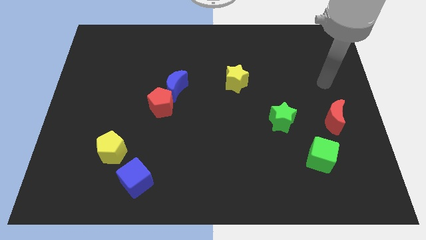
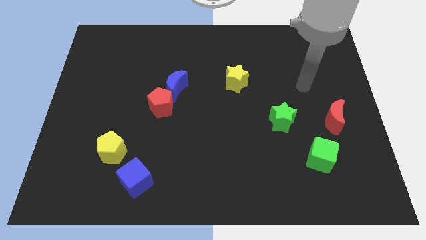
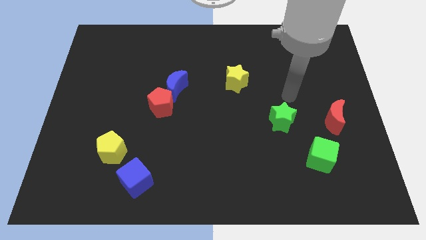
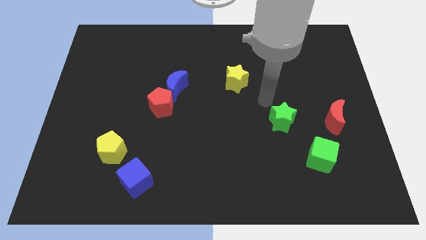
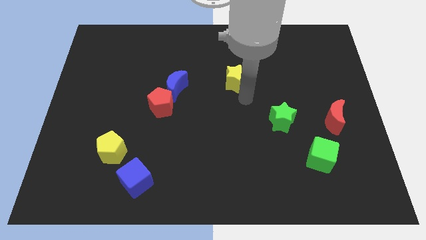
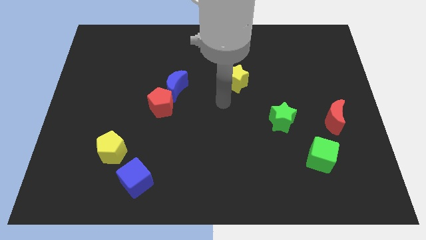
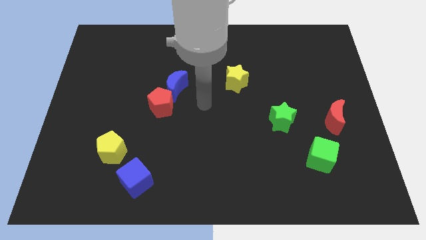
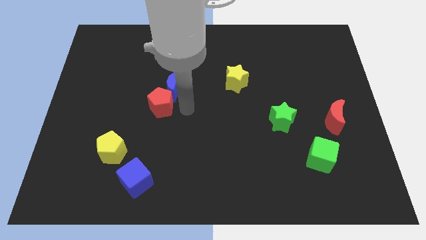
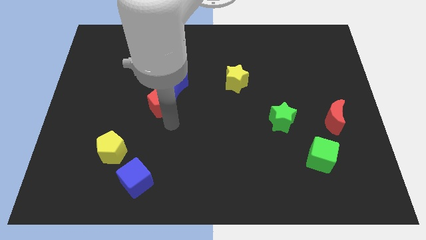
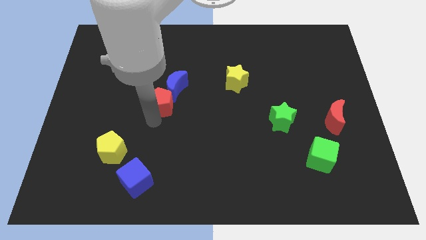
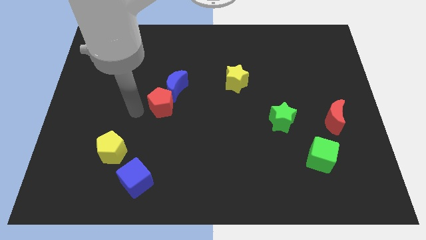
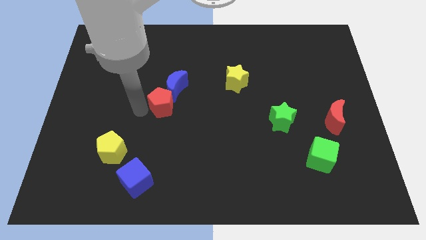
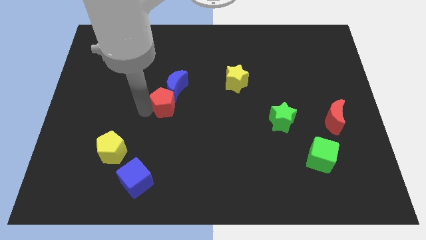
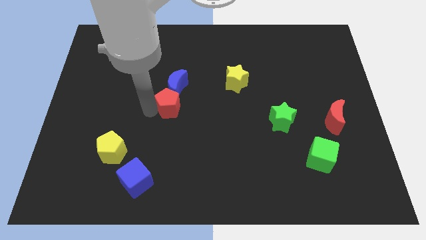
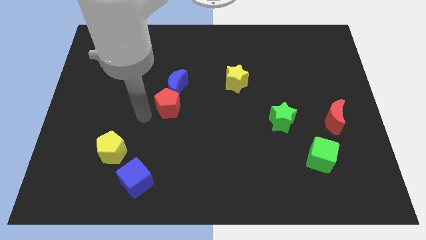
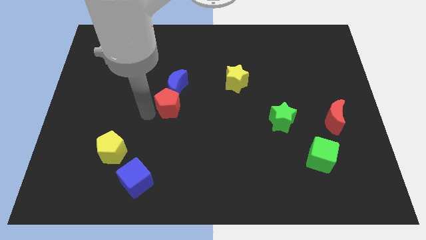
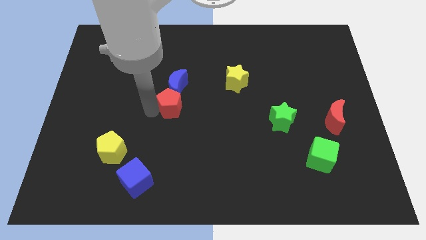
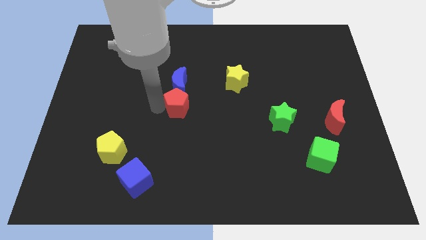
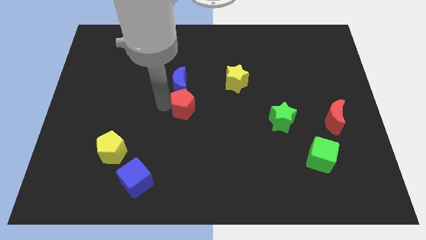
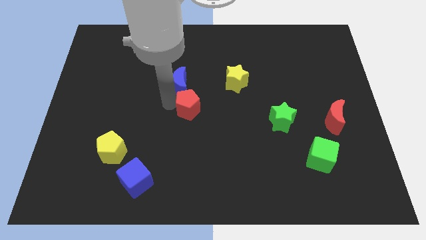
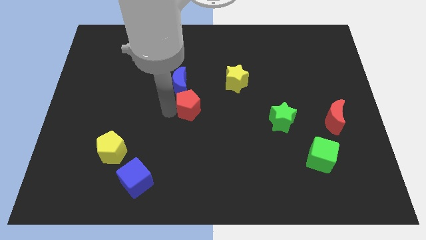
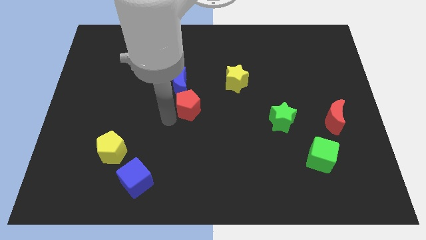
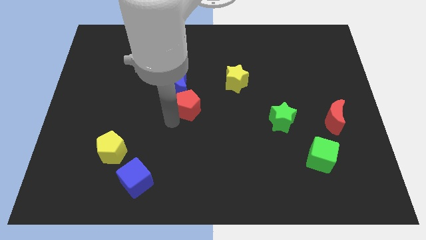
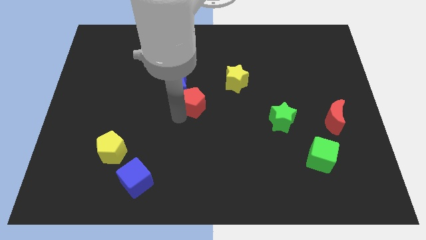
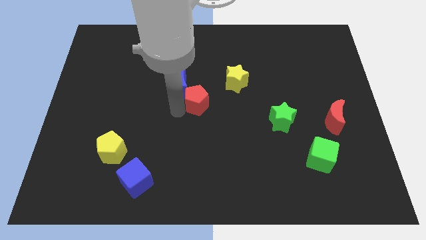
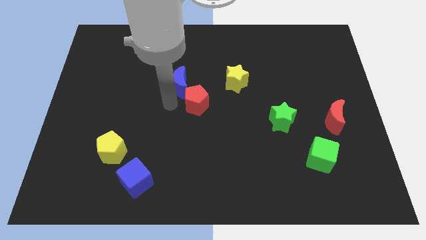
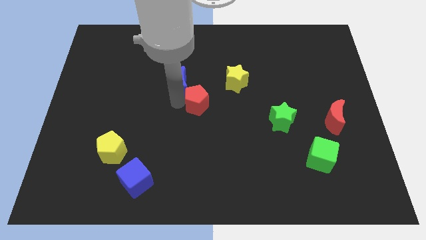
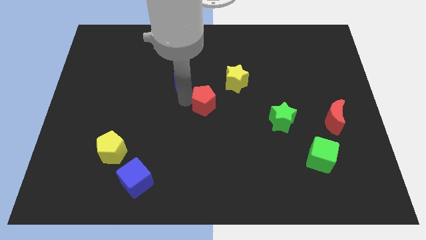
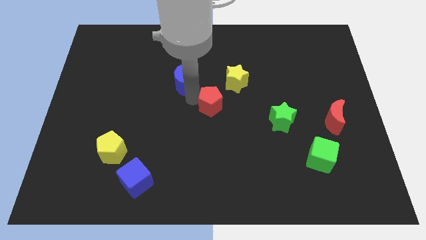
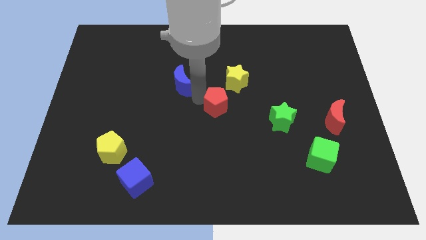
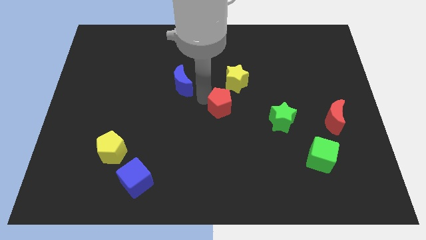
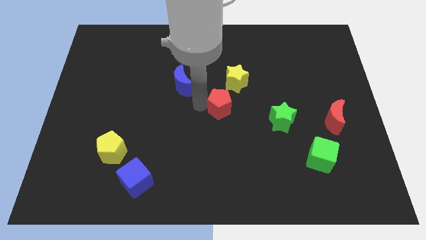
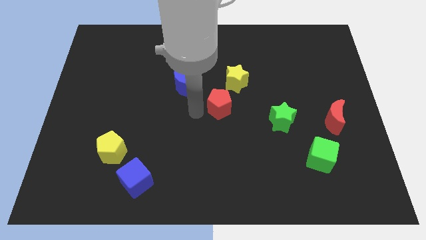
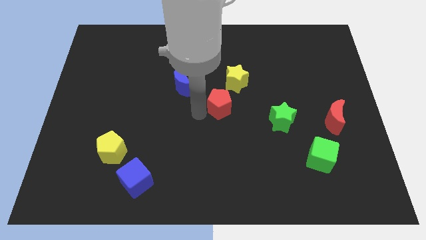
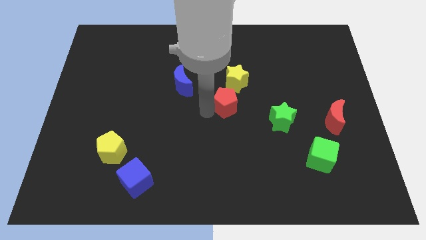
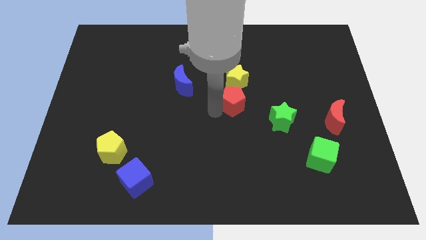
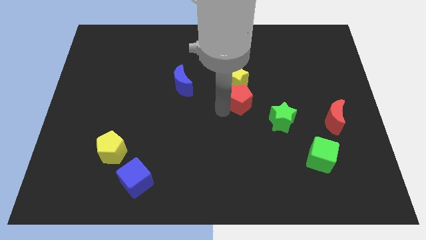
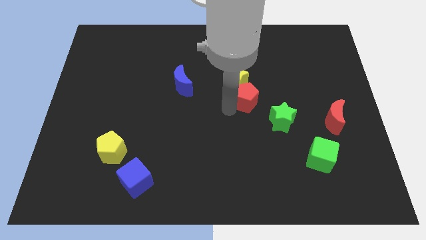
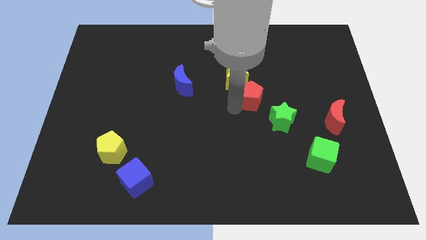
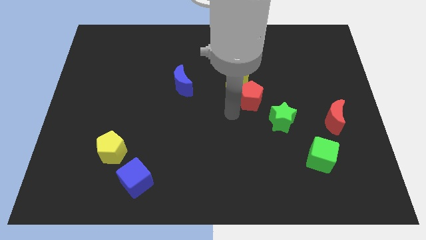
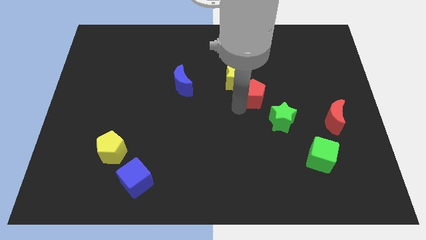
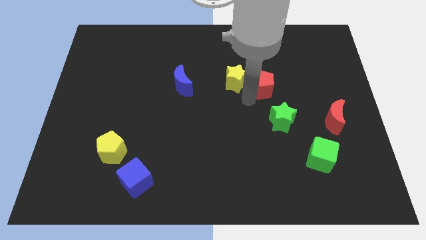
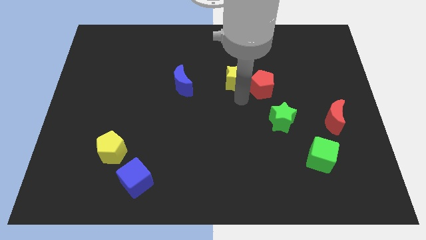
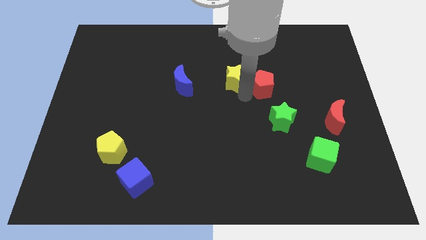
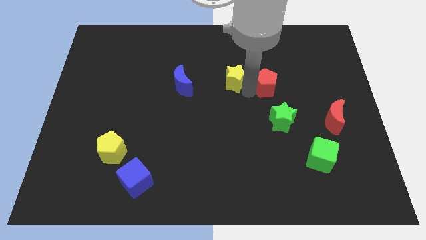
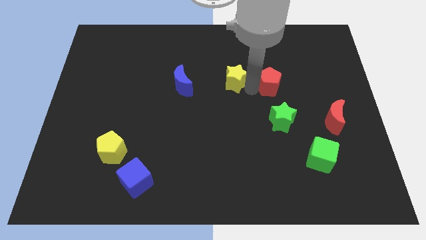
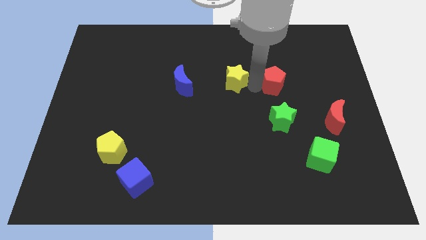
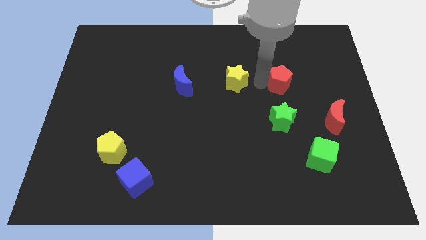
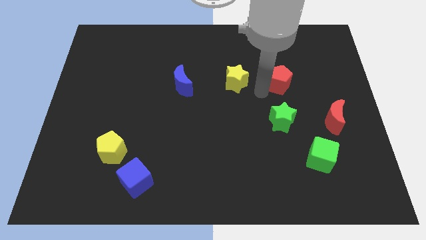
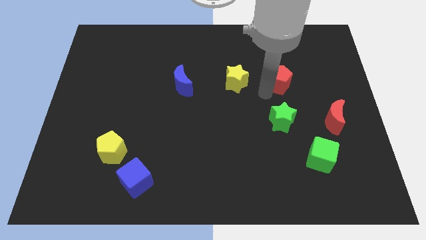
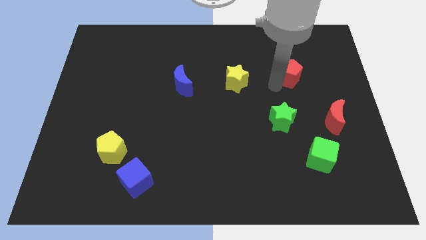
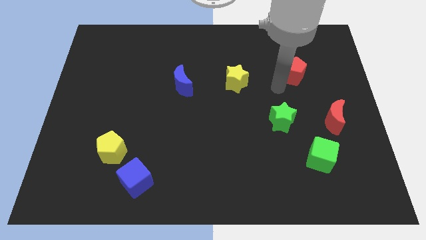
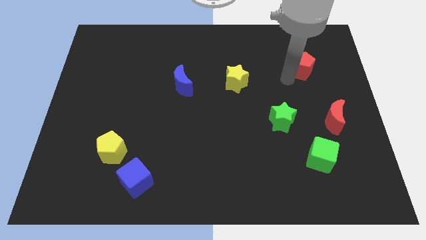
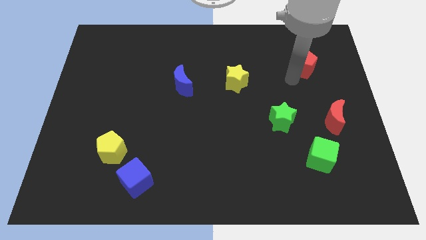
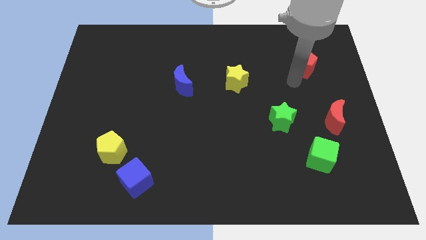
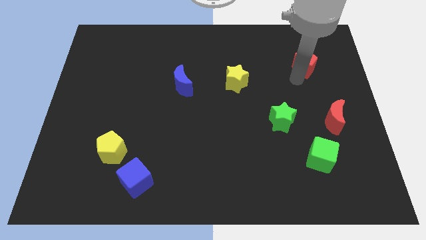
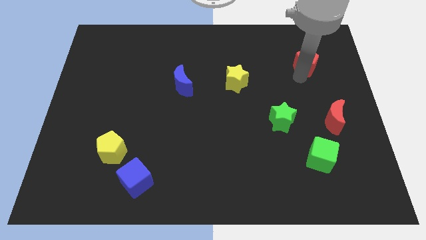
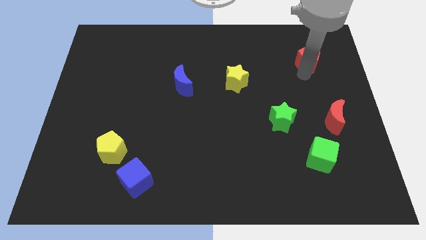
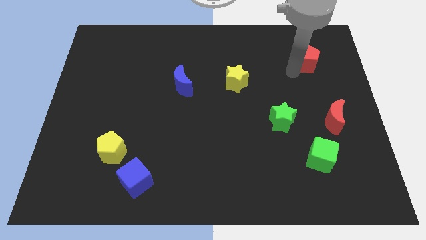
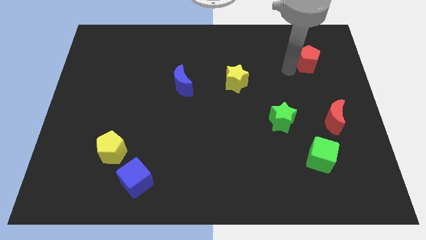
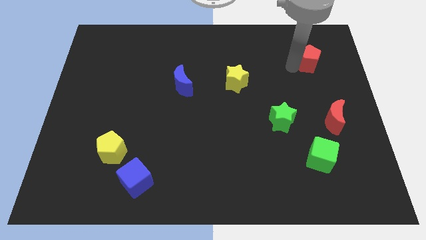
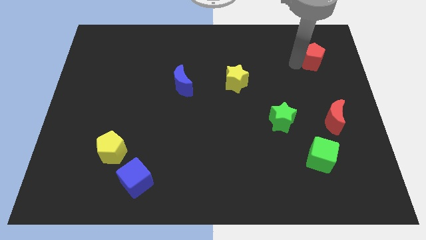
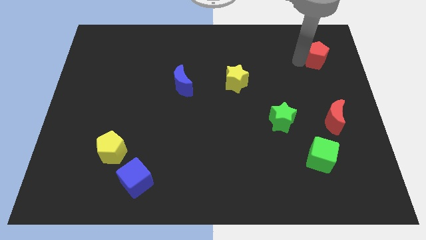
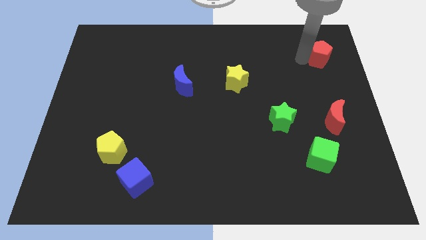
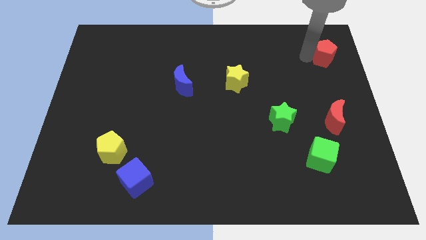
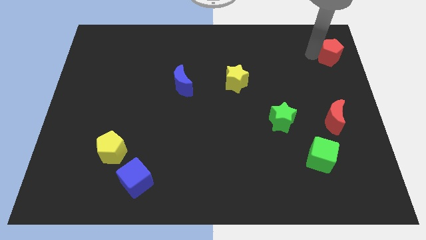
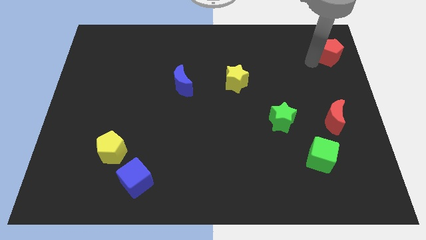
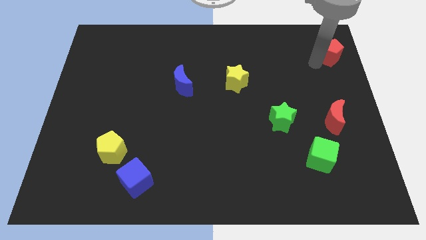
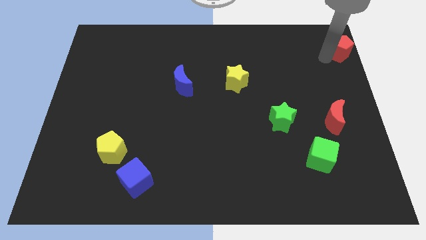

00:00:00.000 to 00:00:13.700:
put the red pentagon to the top right of the board

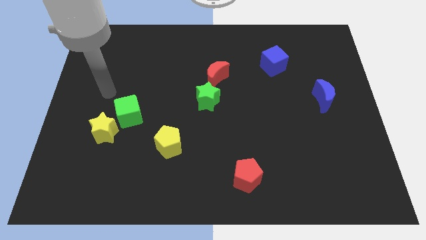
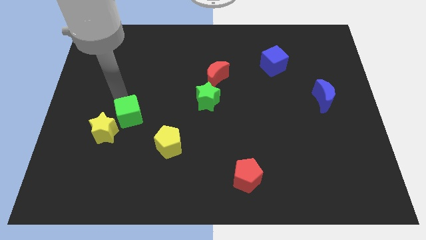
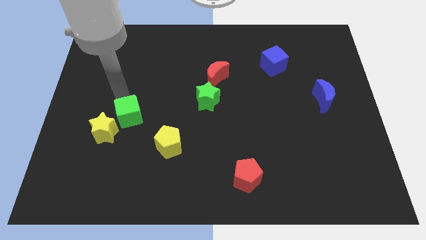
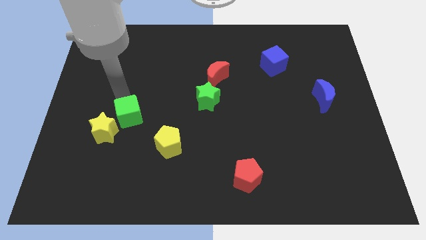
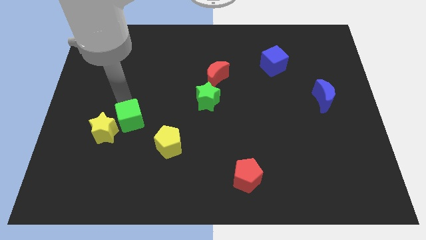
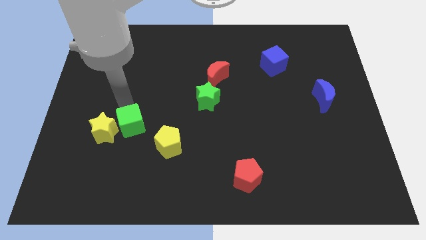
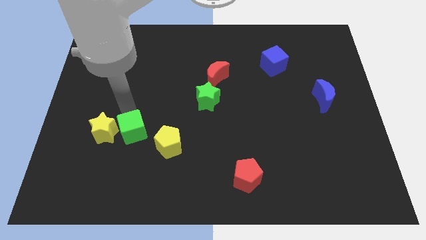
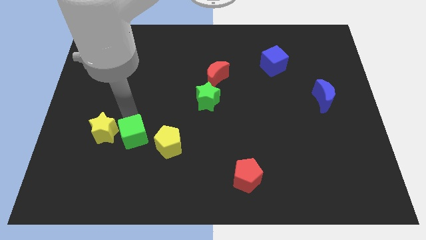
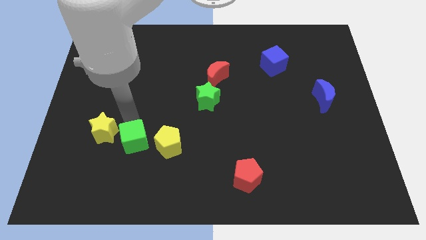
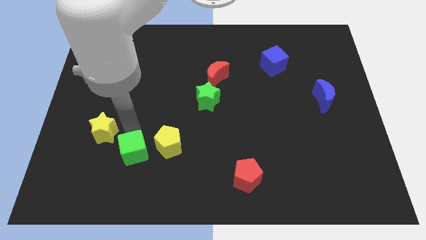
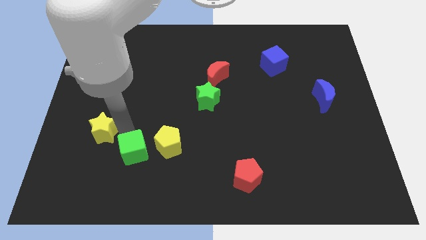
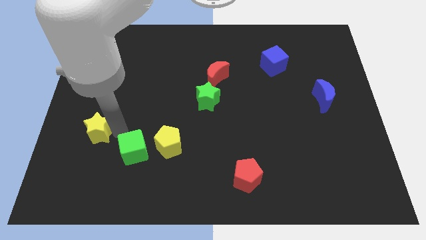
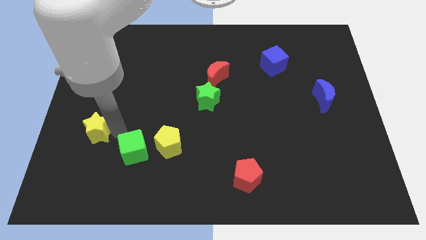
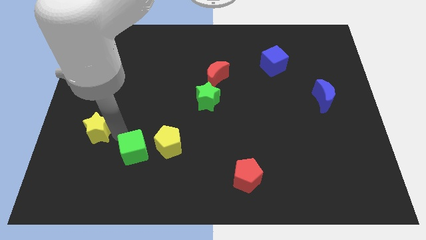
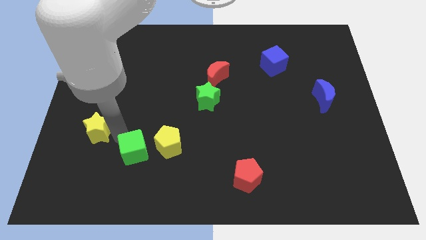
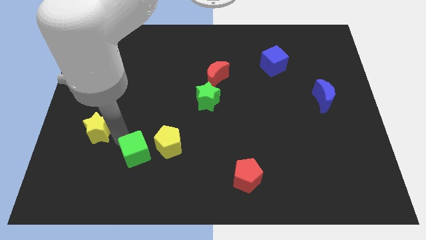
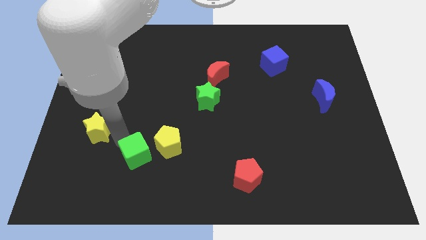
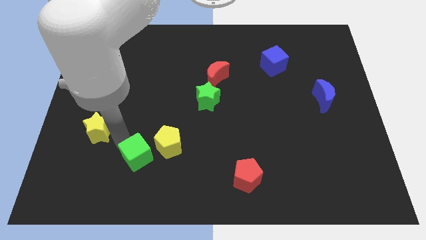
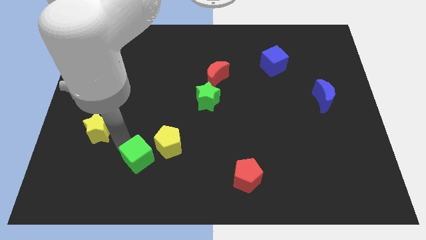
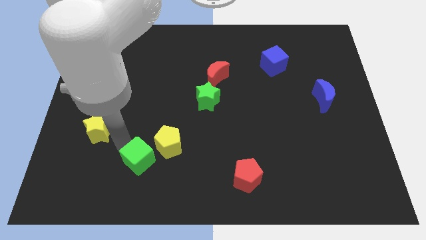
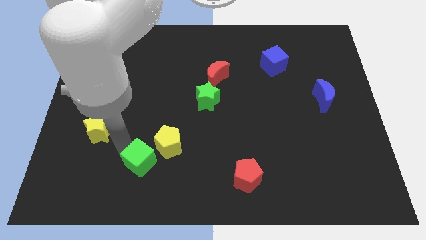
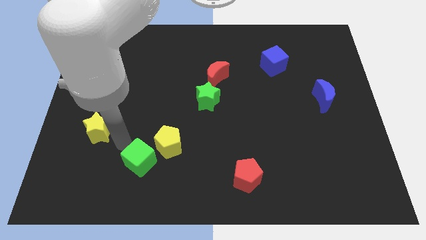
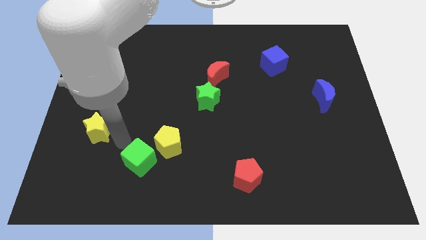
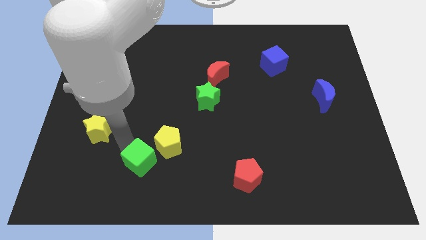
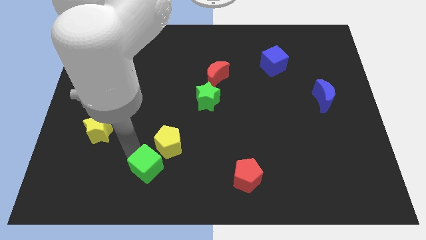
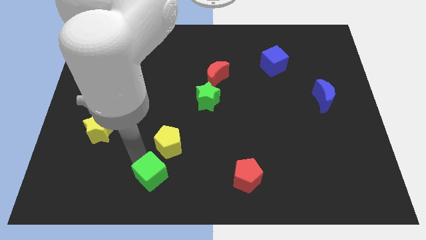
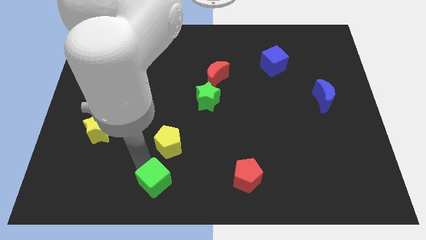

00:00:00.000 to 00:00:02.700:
move the green cube to the bottom
